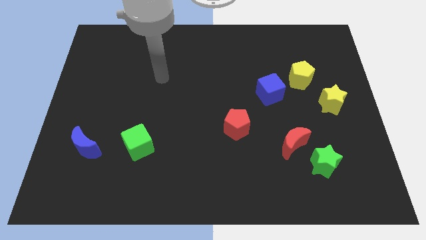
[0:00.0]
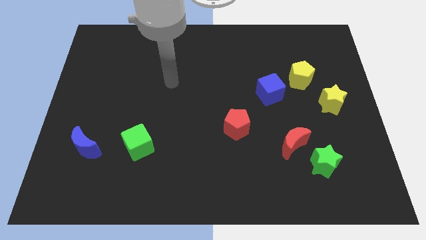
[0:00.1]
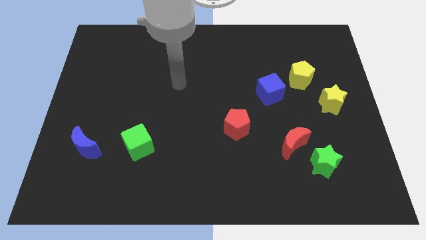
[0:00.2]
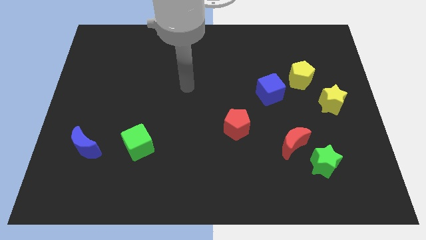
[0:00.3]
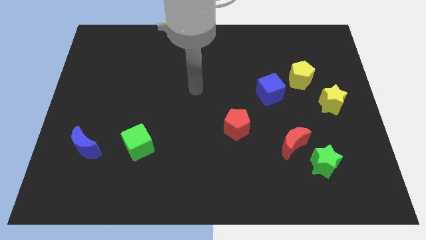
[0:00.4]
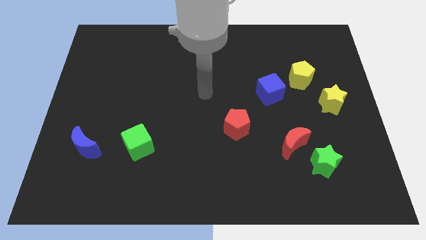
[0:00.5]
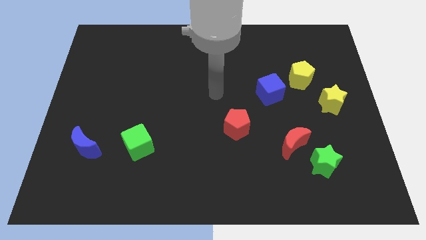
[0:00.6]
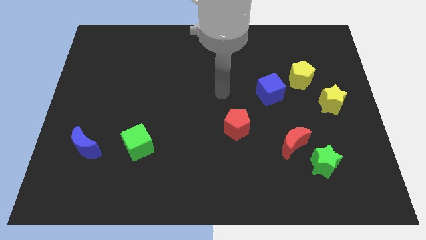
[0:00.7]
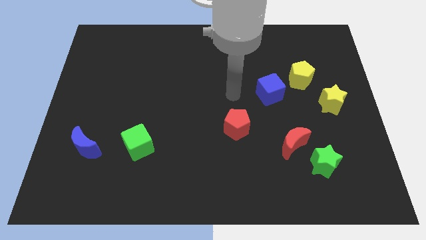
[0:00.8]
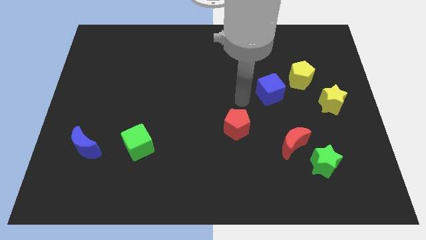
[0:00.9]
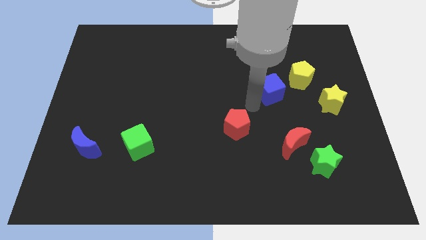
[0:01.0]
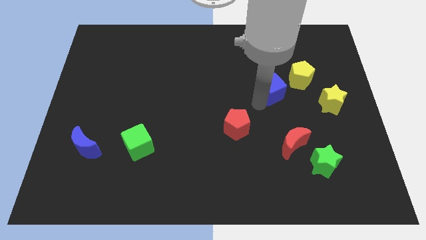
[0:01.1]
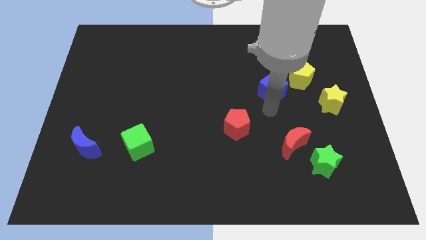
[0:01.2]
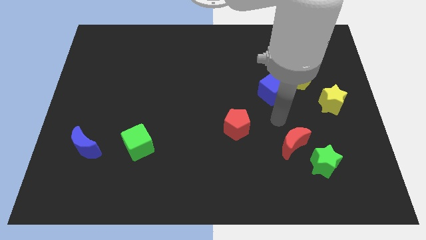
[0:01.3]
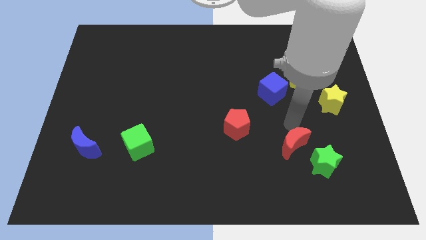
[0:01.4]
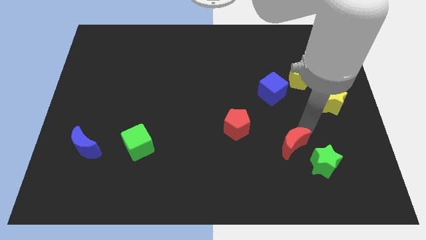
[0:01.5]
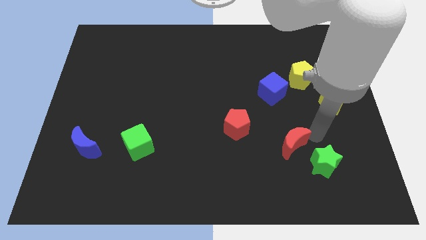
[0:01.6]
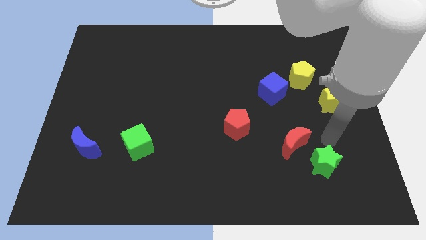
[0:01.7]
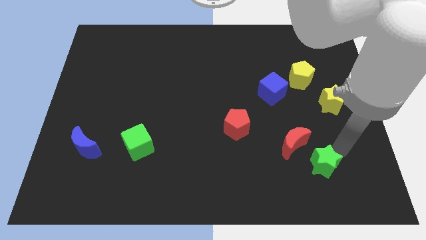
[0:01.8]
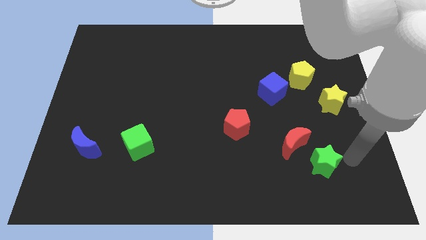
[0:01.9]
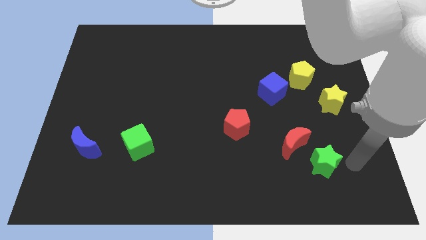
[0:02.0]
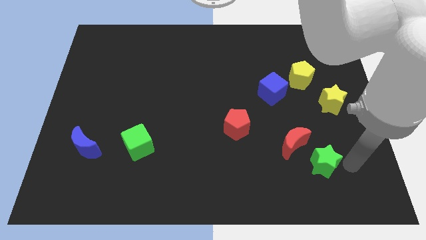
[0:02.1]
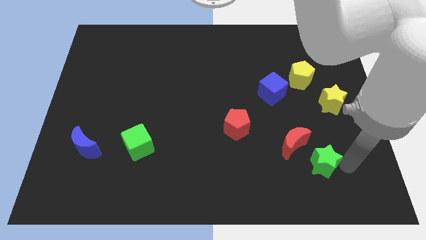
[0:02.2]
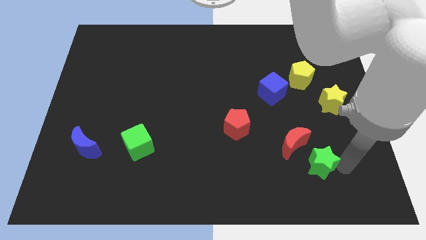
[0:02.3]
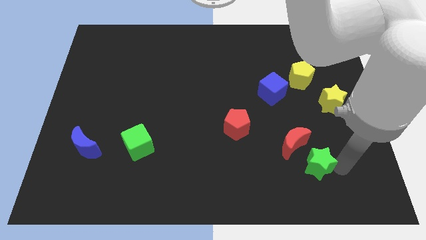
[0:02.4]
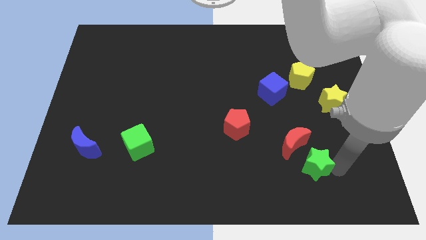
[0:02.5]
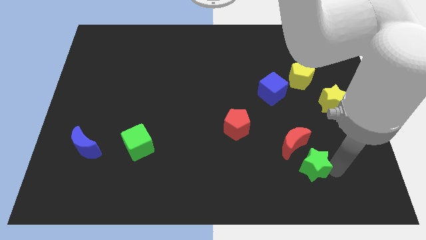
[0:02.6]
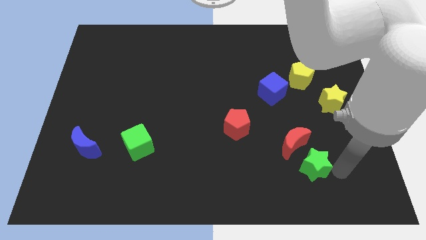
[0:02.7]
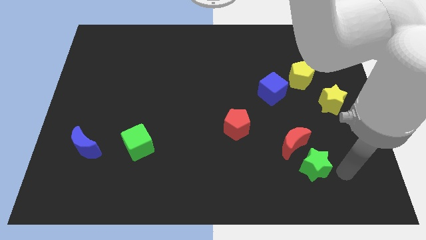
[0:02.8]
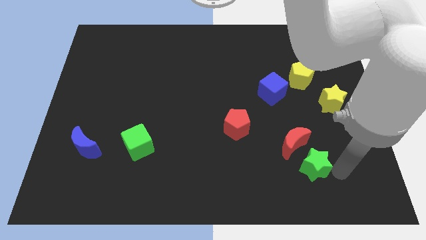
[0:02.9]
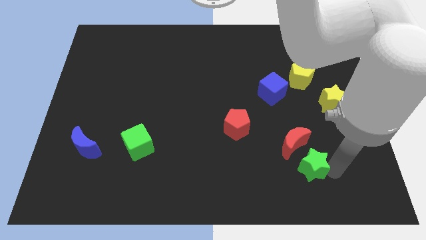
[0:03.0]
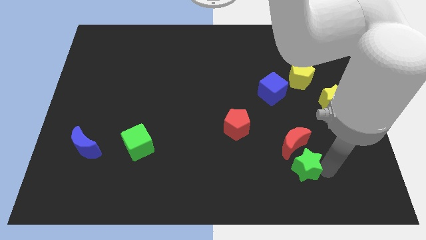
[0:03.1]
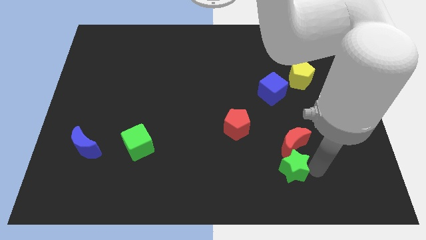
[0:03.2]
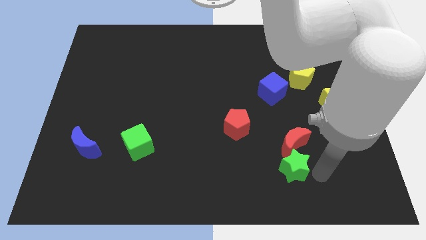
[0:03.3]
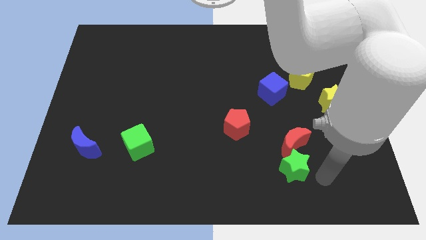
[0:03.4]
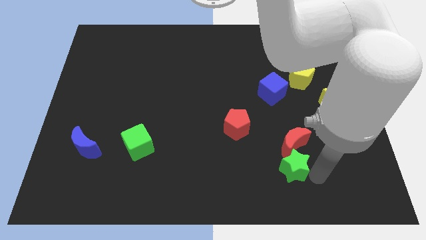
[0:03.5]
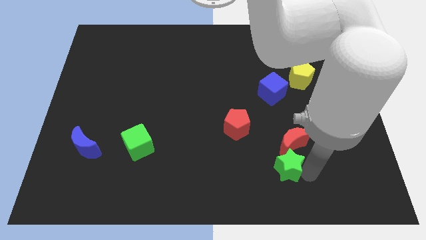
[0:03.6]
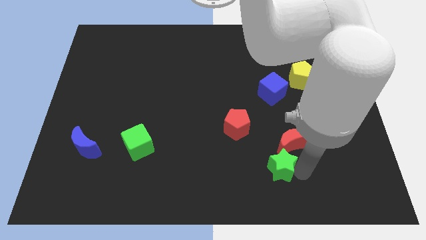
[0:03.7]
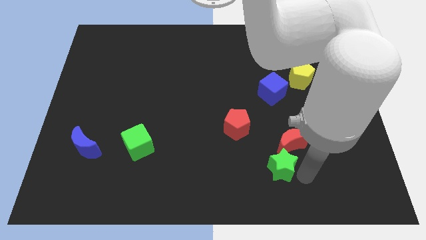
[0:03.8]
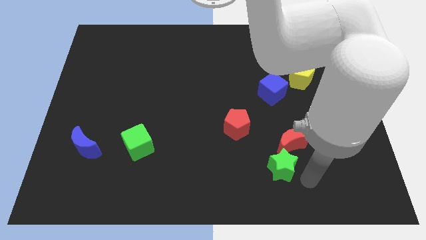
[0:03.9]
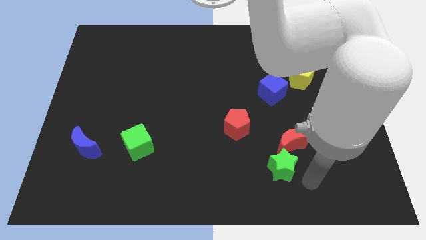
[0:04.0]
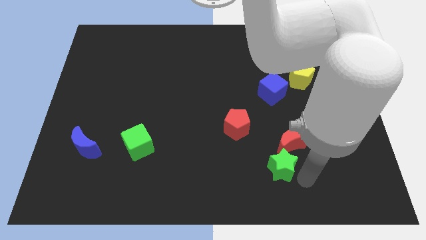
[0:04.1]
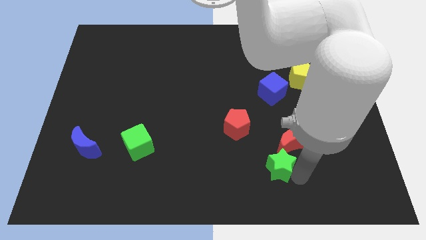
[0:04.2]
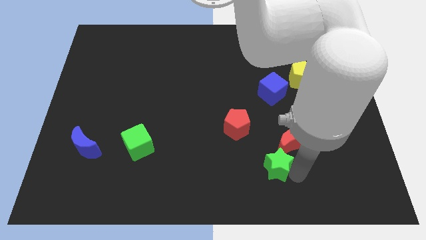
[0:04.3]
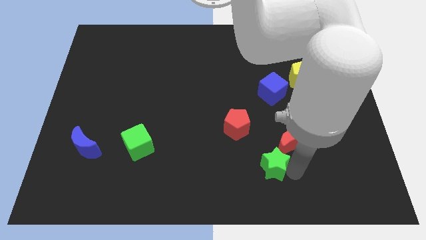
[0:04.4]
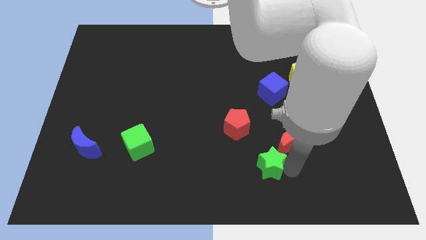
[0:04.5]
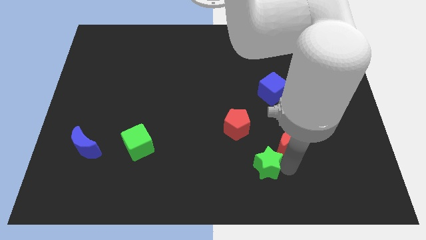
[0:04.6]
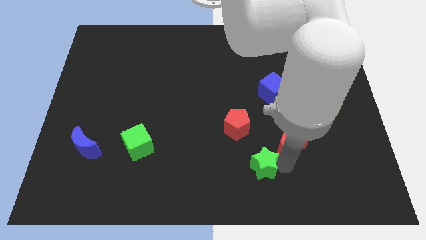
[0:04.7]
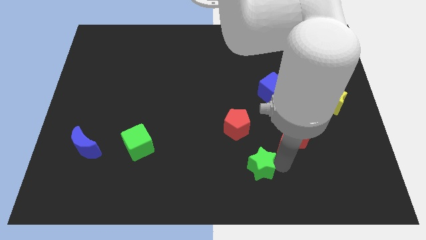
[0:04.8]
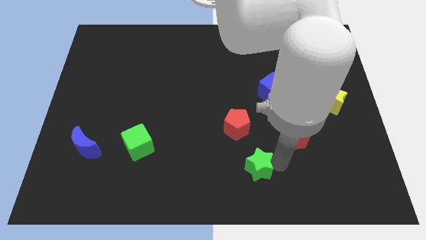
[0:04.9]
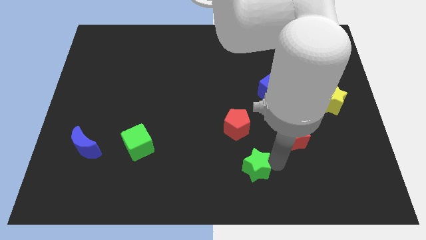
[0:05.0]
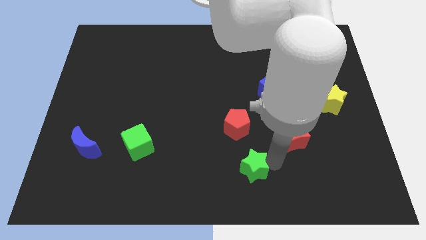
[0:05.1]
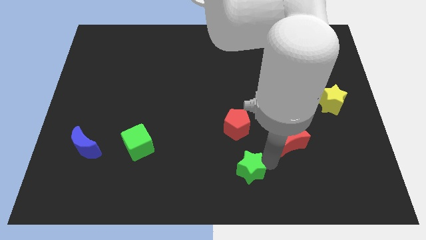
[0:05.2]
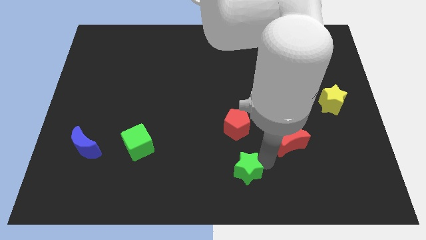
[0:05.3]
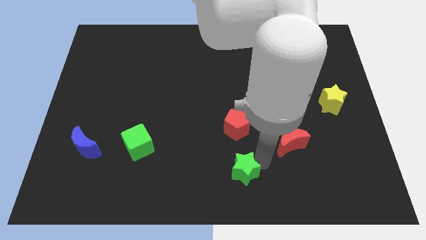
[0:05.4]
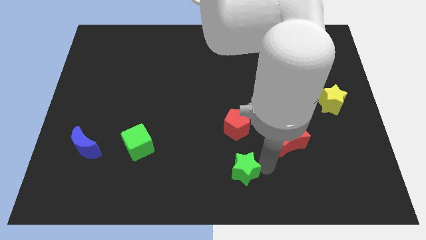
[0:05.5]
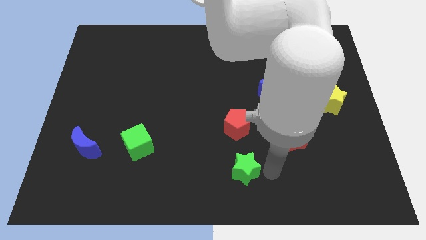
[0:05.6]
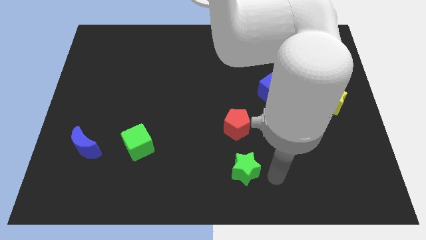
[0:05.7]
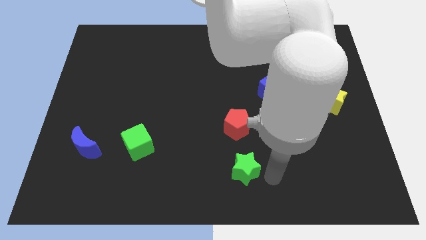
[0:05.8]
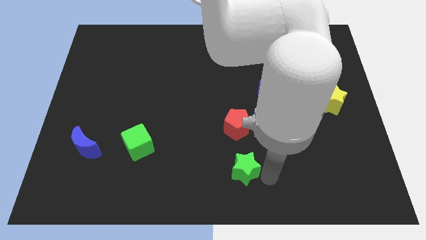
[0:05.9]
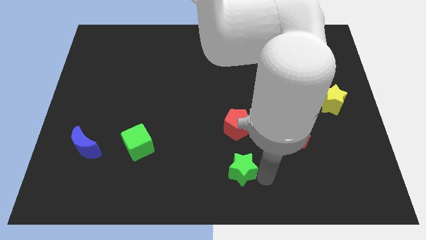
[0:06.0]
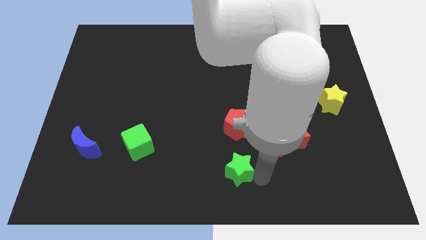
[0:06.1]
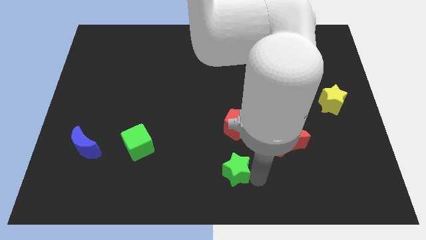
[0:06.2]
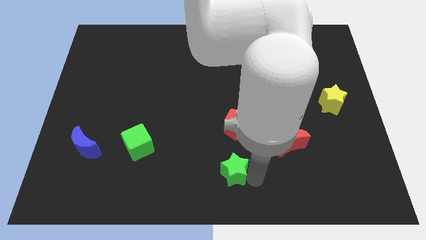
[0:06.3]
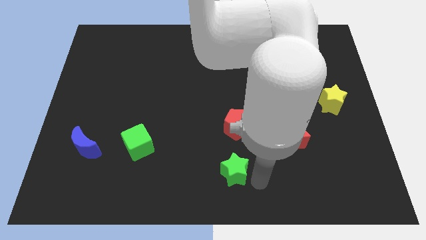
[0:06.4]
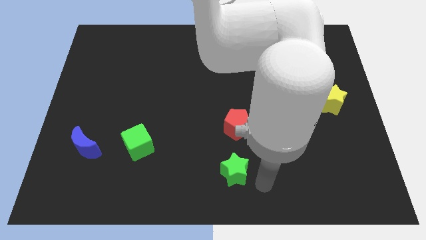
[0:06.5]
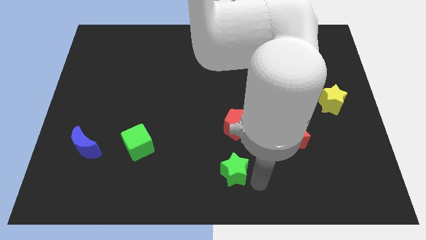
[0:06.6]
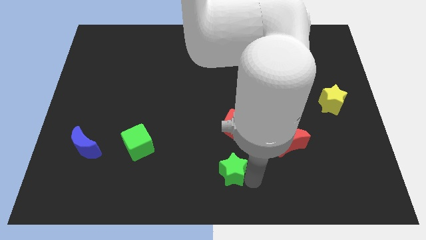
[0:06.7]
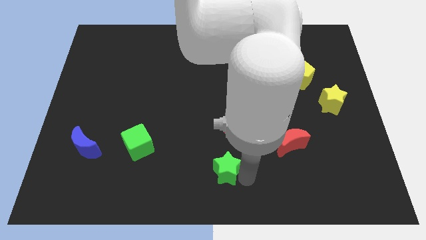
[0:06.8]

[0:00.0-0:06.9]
move the green star left

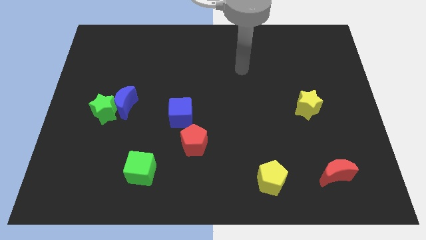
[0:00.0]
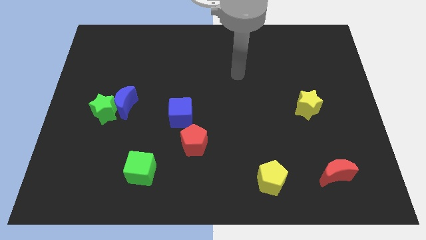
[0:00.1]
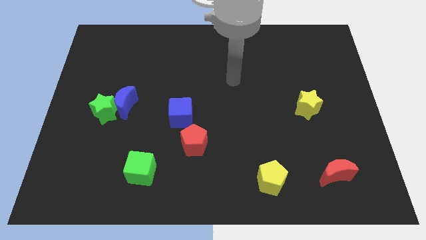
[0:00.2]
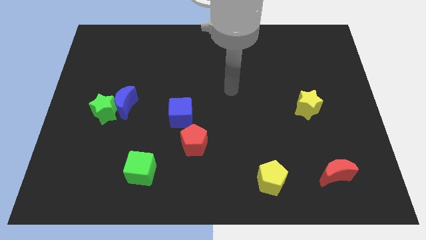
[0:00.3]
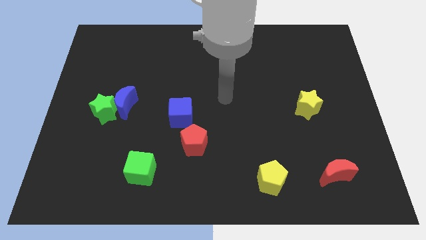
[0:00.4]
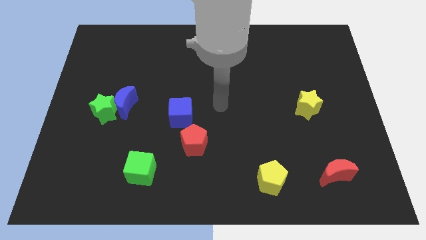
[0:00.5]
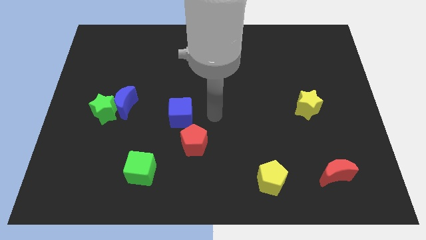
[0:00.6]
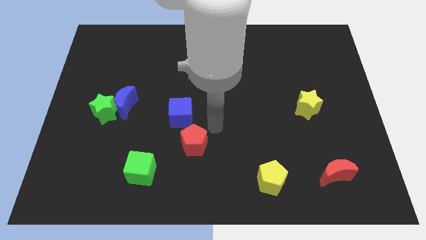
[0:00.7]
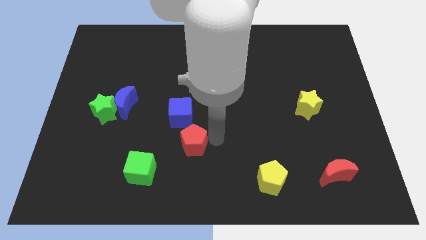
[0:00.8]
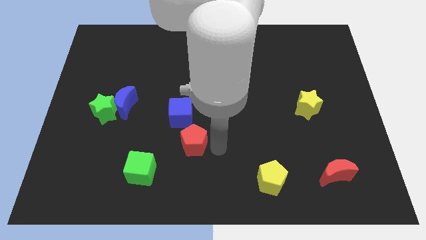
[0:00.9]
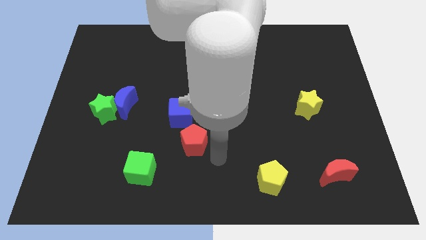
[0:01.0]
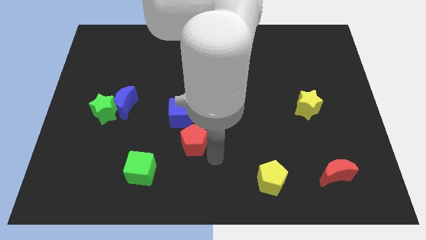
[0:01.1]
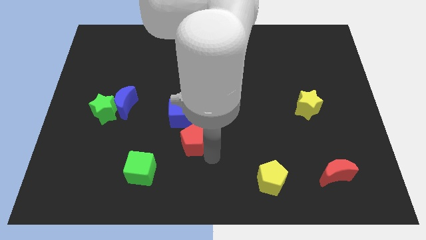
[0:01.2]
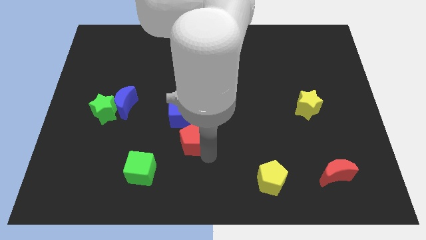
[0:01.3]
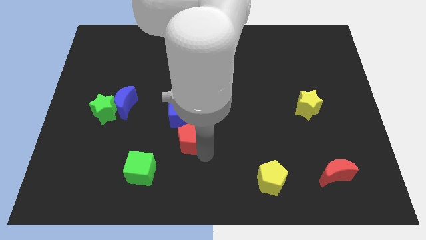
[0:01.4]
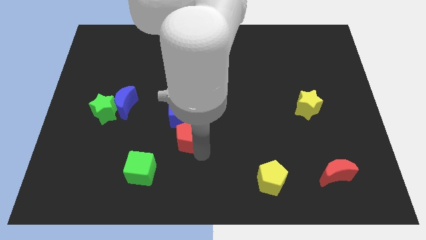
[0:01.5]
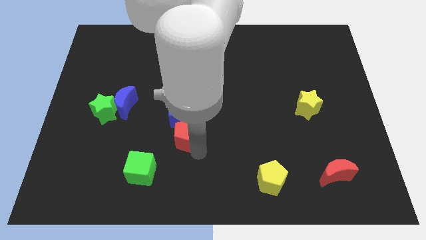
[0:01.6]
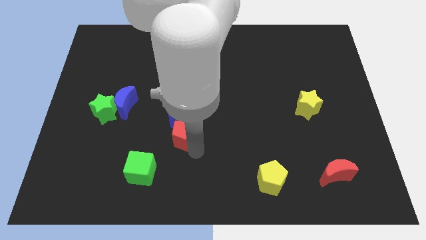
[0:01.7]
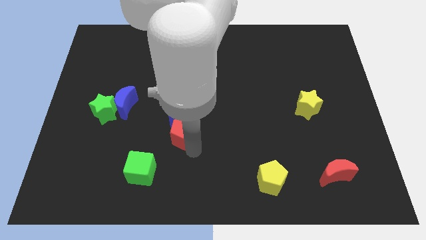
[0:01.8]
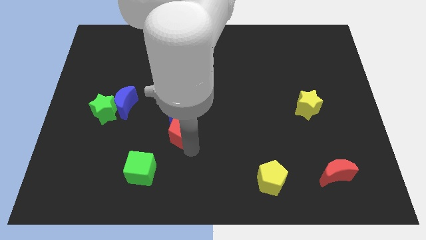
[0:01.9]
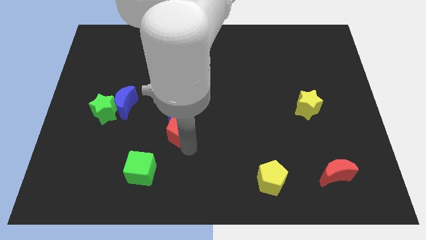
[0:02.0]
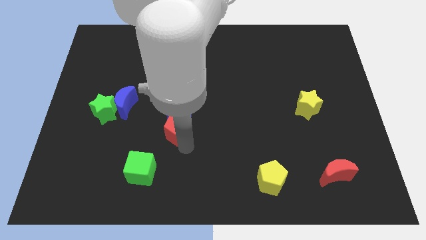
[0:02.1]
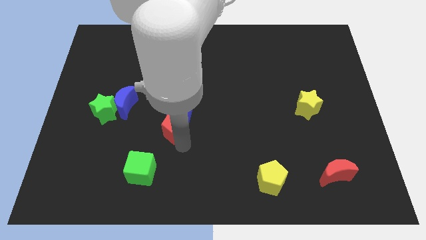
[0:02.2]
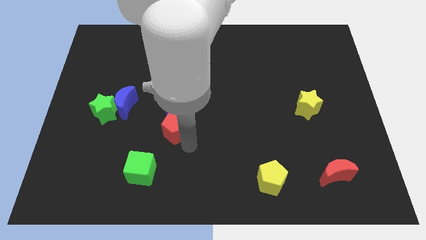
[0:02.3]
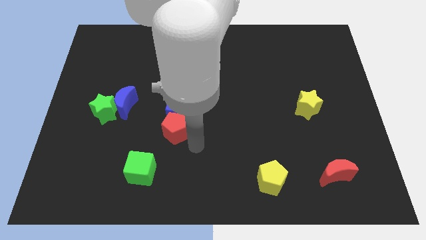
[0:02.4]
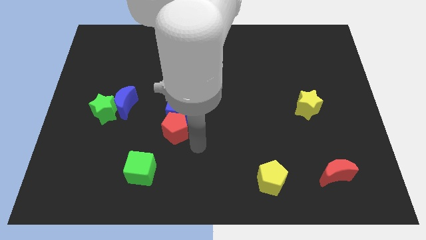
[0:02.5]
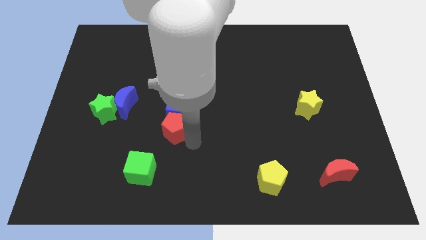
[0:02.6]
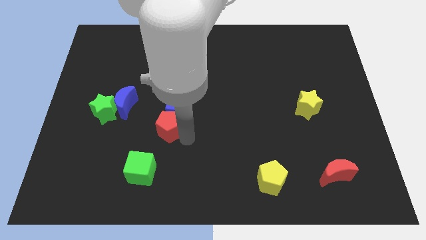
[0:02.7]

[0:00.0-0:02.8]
move the red pentagon upwards and then left somewhat
